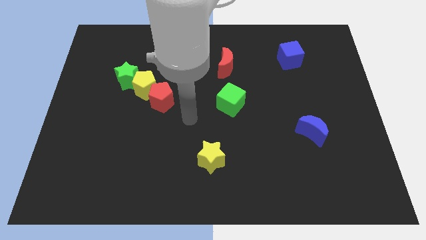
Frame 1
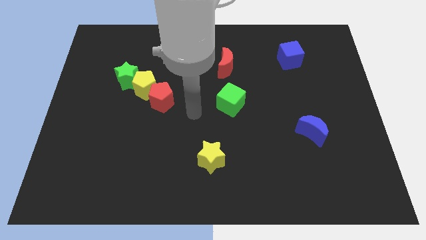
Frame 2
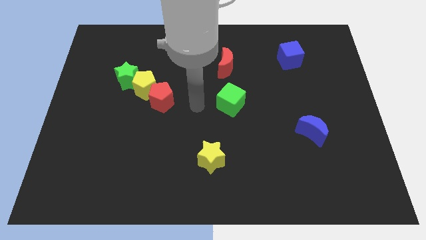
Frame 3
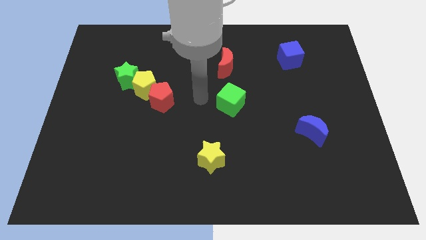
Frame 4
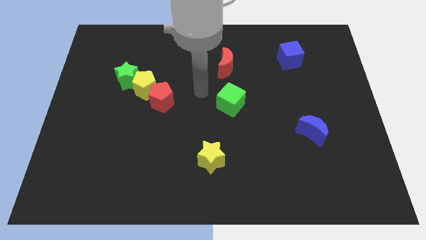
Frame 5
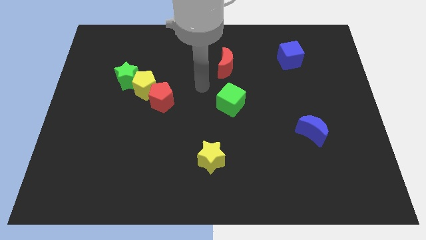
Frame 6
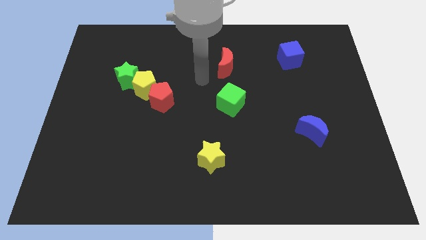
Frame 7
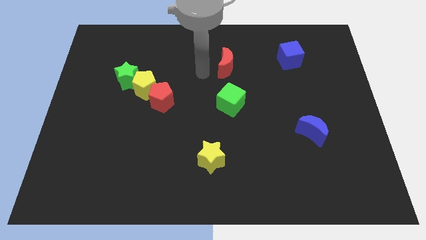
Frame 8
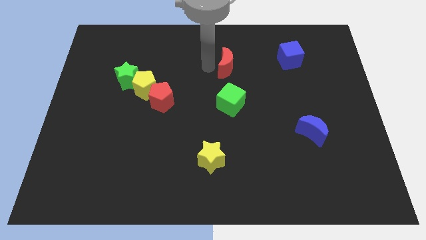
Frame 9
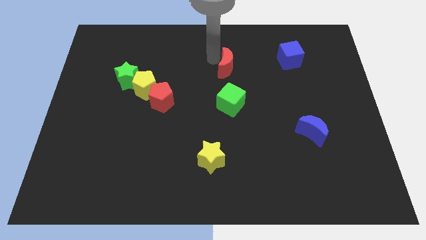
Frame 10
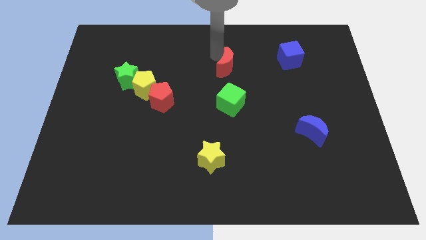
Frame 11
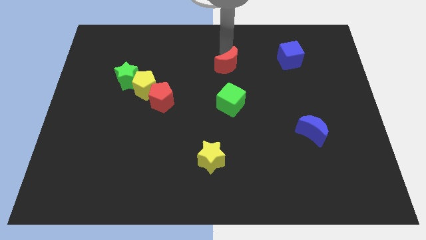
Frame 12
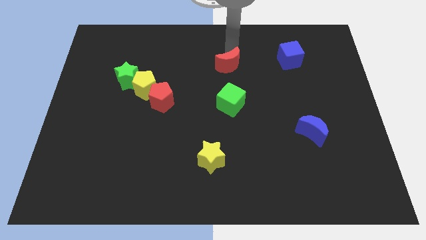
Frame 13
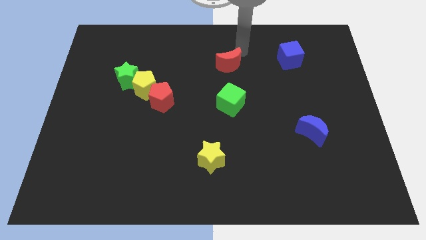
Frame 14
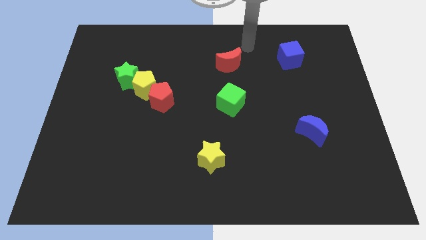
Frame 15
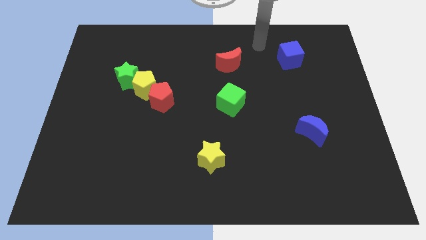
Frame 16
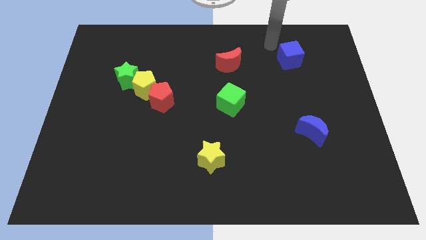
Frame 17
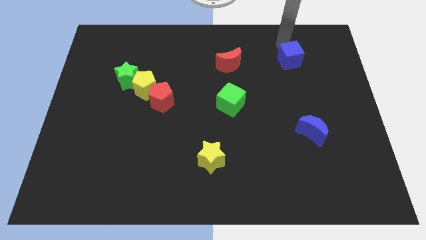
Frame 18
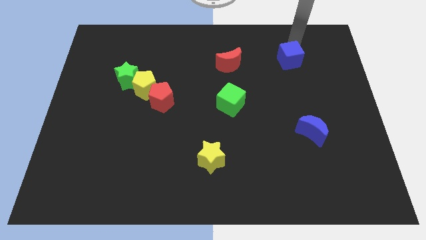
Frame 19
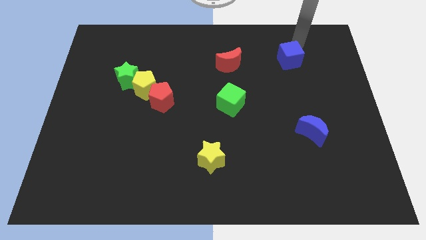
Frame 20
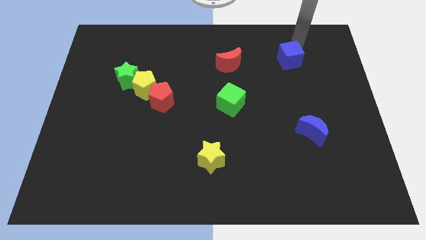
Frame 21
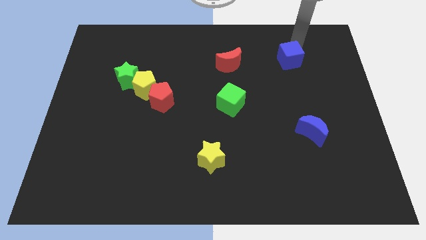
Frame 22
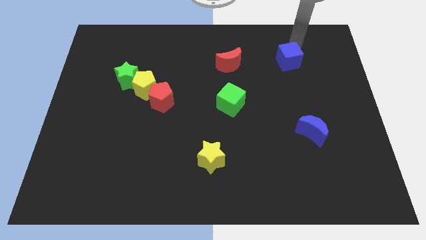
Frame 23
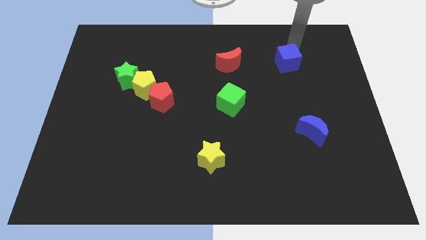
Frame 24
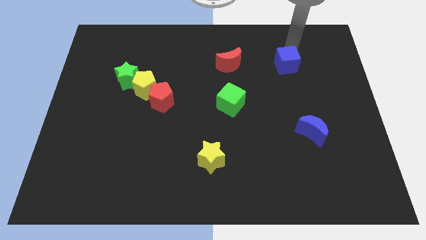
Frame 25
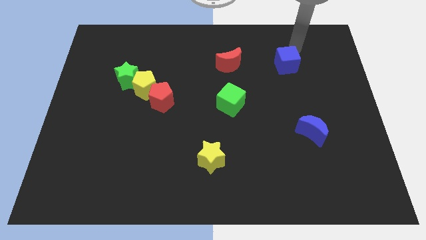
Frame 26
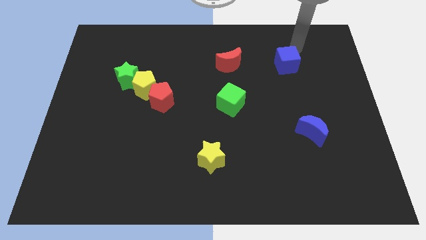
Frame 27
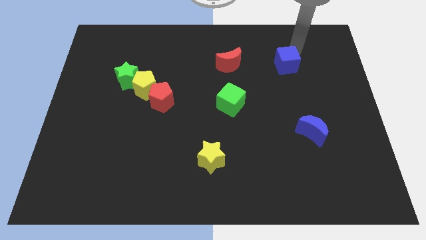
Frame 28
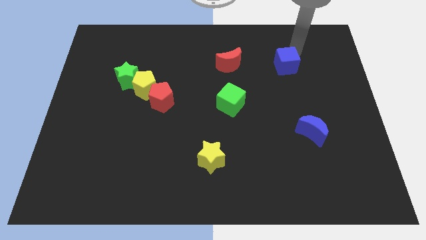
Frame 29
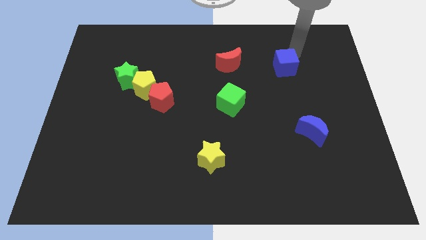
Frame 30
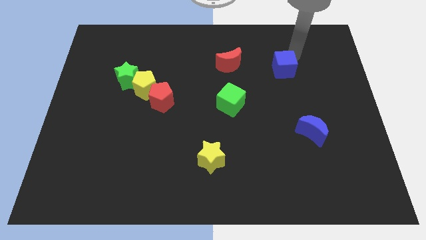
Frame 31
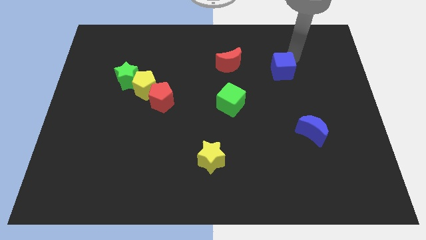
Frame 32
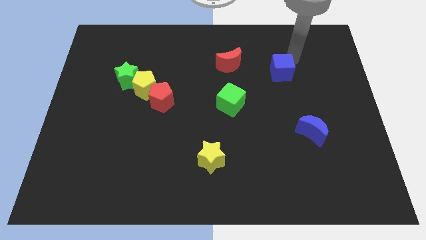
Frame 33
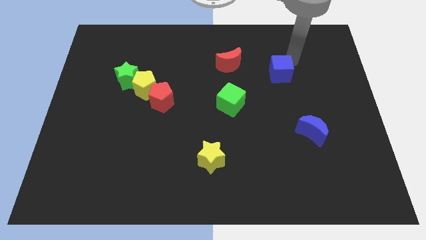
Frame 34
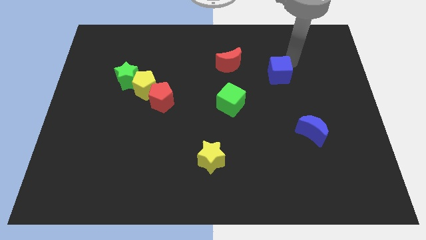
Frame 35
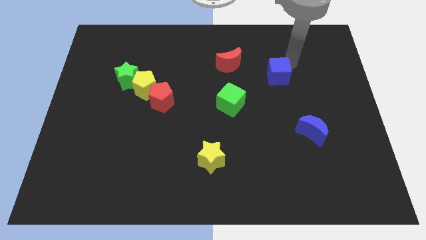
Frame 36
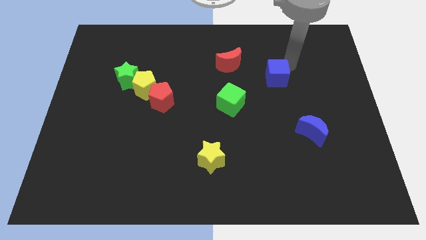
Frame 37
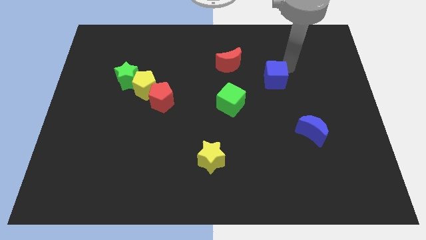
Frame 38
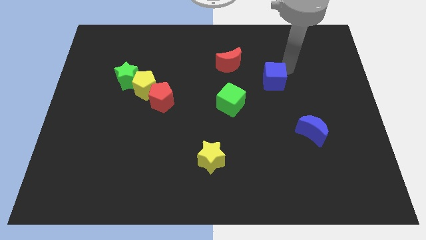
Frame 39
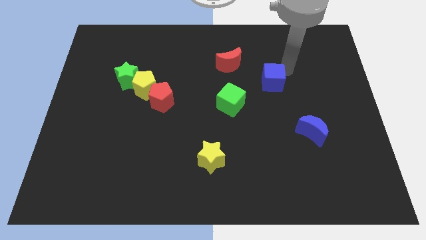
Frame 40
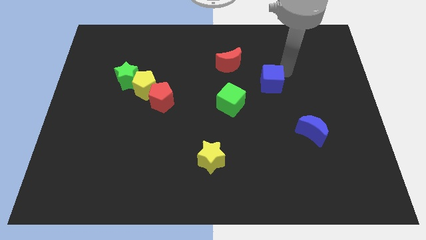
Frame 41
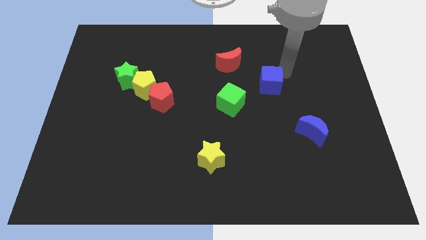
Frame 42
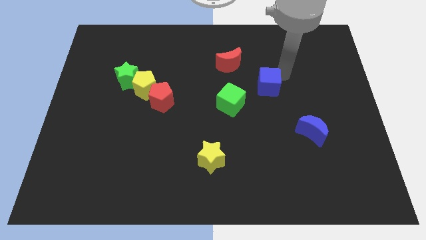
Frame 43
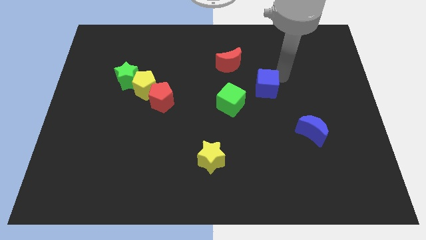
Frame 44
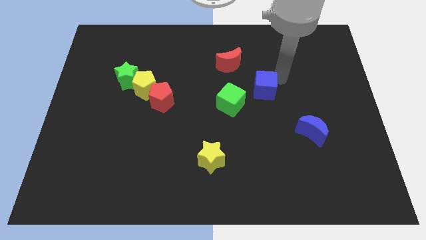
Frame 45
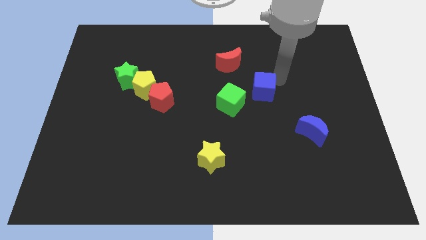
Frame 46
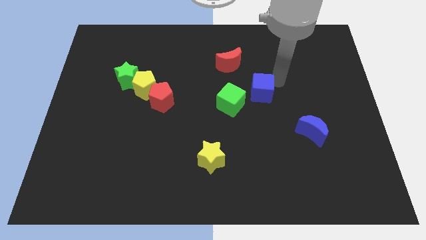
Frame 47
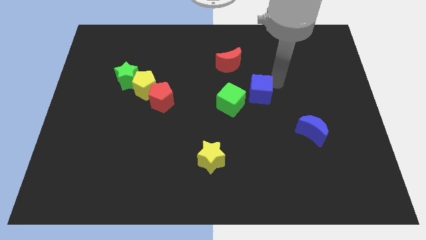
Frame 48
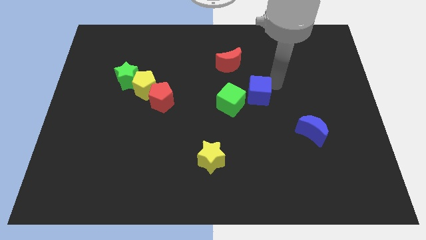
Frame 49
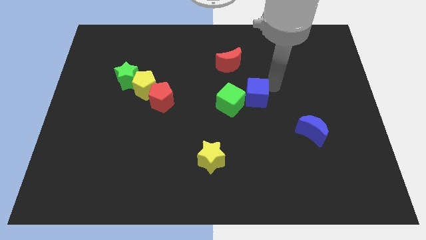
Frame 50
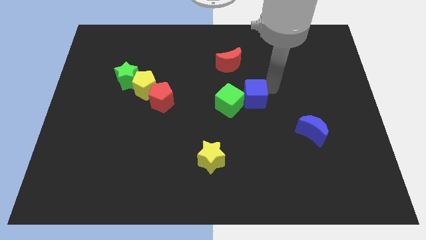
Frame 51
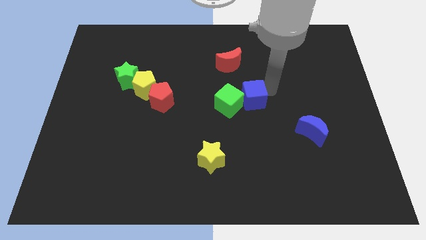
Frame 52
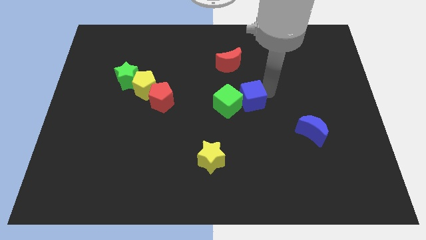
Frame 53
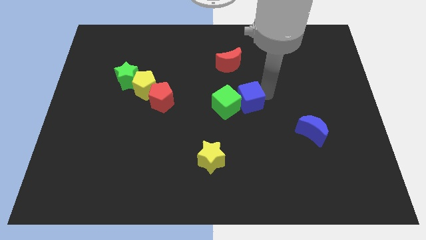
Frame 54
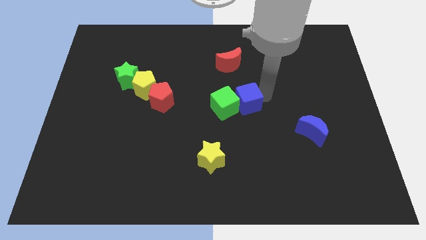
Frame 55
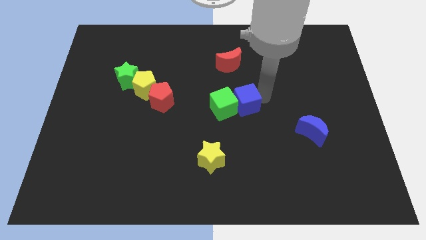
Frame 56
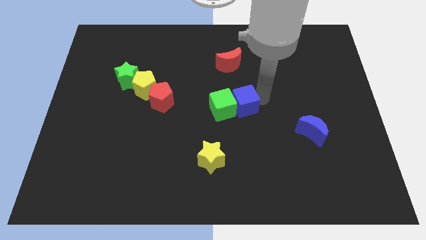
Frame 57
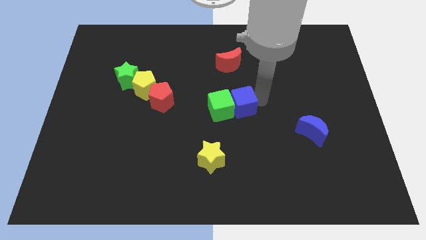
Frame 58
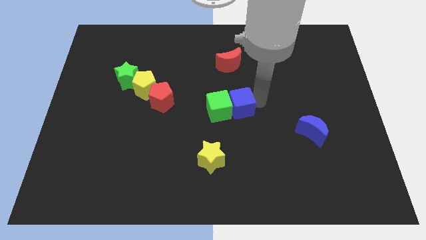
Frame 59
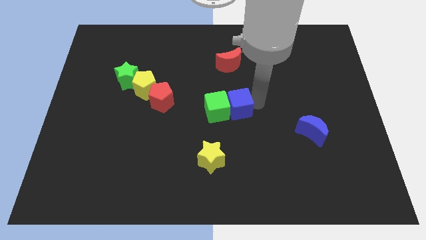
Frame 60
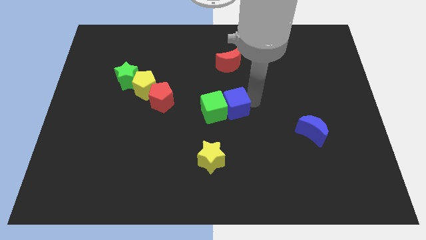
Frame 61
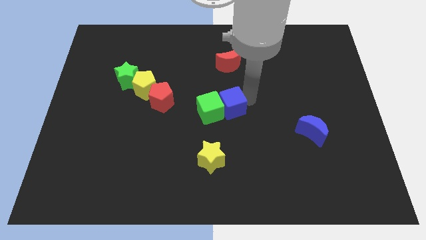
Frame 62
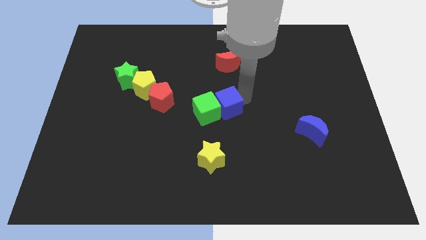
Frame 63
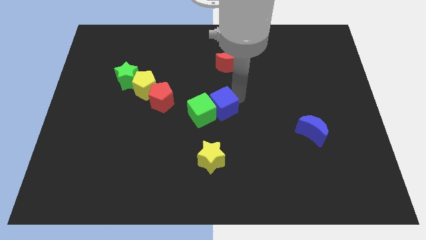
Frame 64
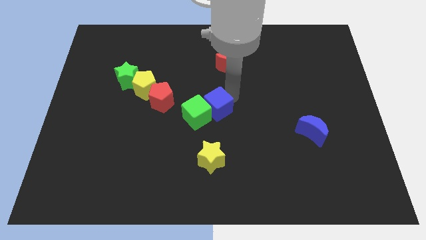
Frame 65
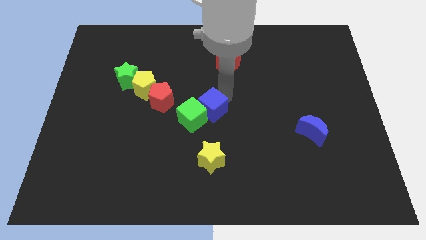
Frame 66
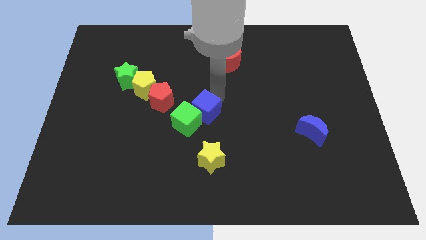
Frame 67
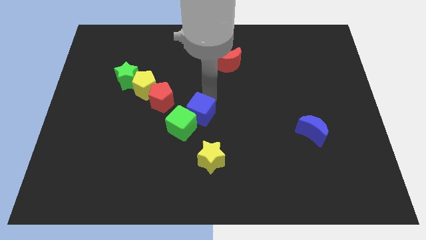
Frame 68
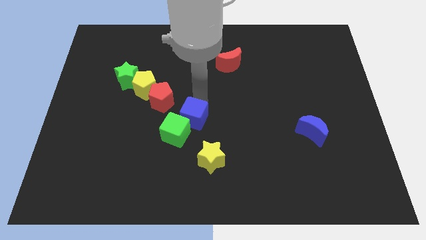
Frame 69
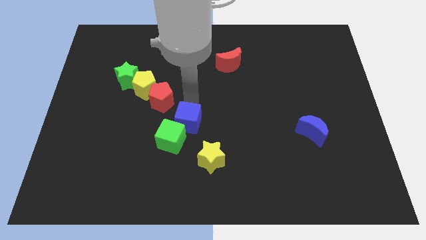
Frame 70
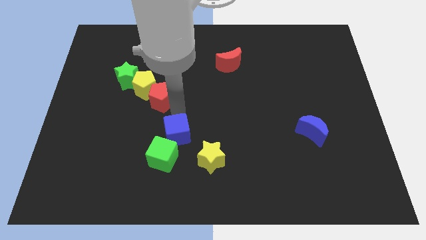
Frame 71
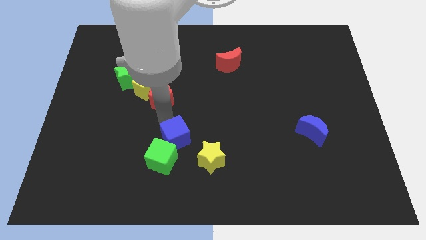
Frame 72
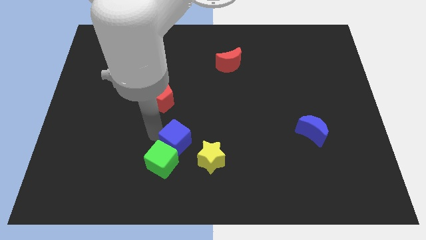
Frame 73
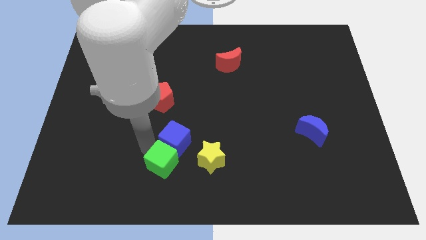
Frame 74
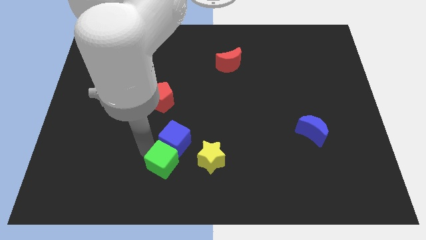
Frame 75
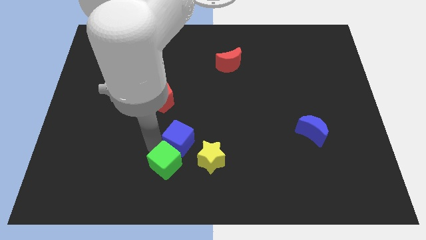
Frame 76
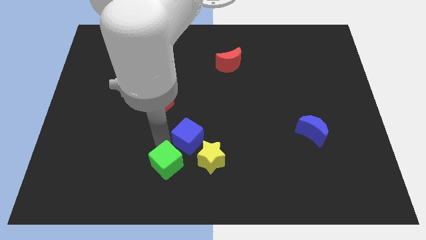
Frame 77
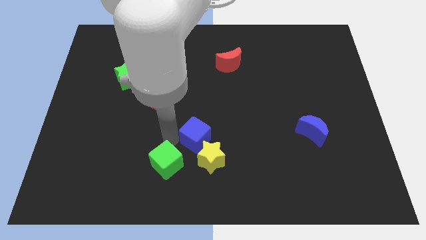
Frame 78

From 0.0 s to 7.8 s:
push the blue cube towards the yellow star
